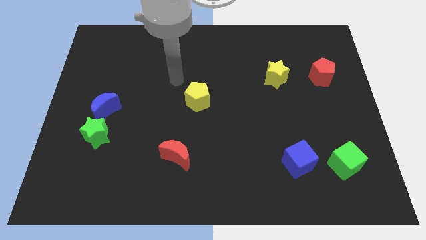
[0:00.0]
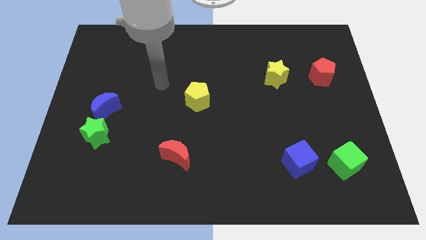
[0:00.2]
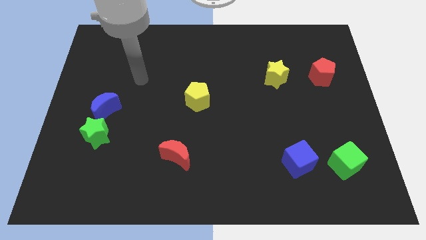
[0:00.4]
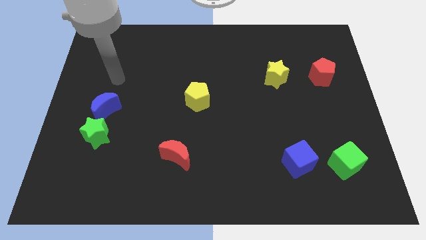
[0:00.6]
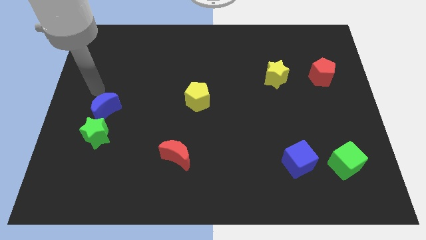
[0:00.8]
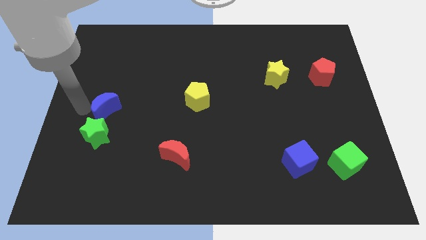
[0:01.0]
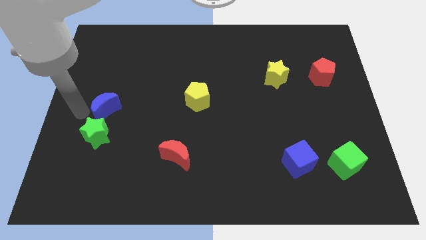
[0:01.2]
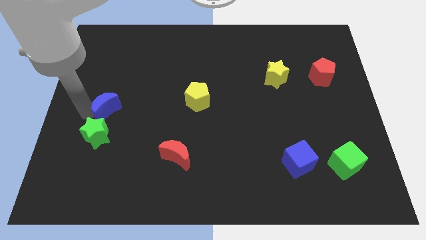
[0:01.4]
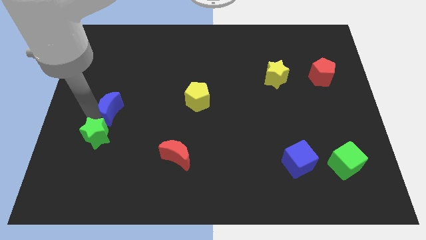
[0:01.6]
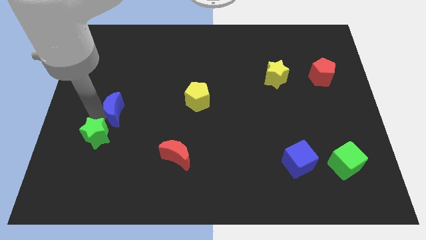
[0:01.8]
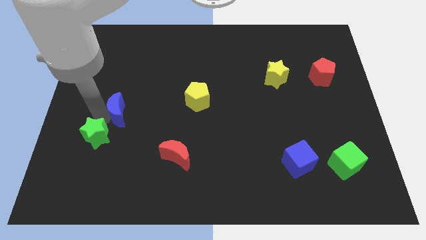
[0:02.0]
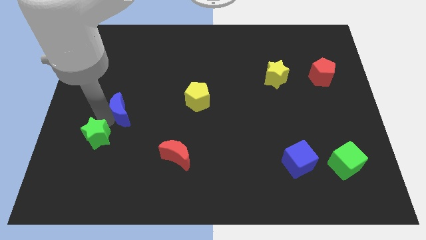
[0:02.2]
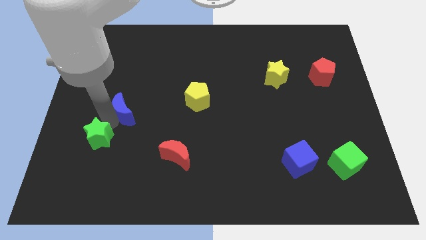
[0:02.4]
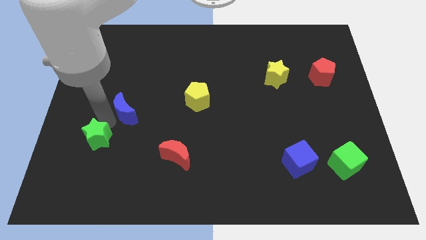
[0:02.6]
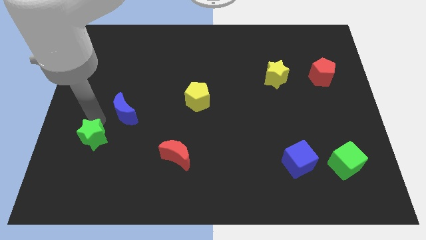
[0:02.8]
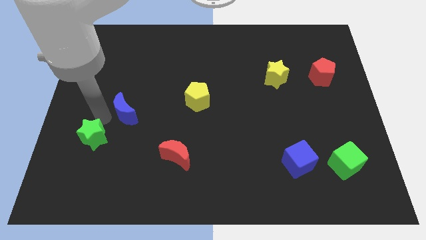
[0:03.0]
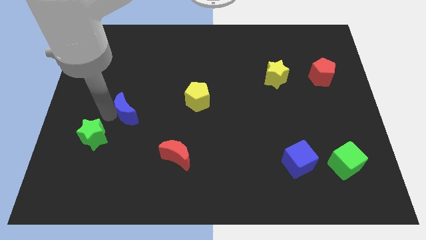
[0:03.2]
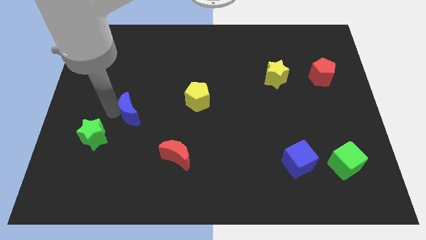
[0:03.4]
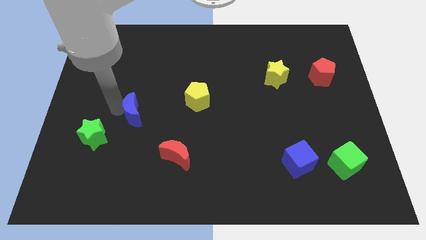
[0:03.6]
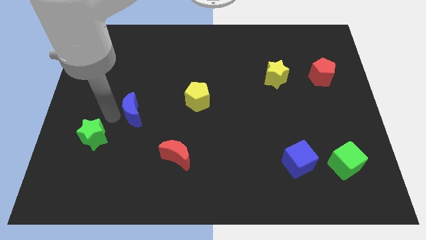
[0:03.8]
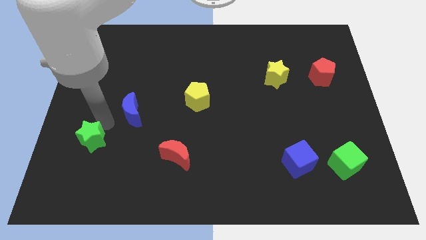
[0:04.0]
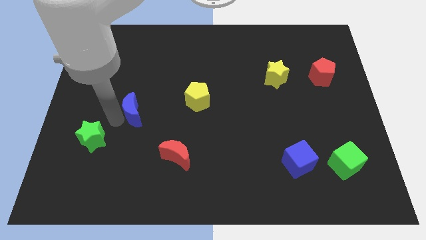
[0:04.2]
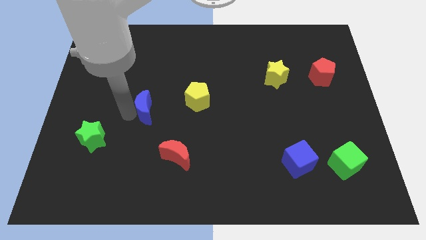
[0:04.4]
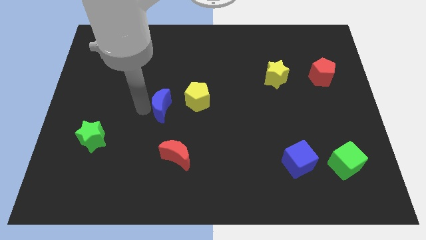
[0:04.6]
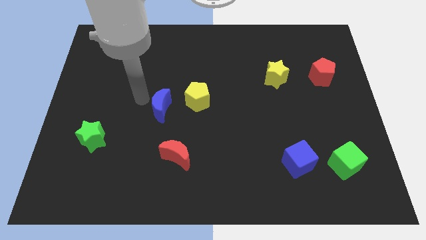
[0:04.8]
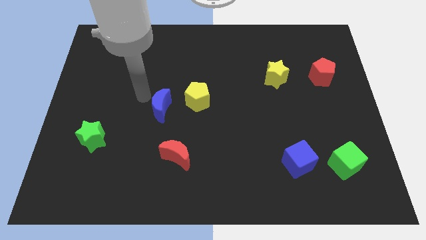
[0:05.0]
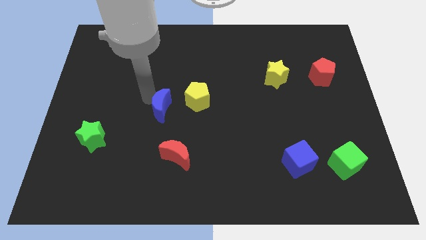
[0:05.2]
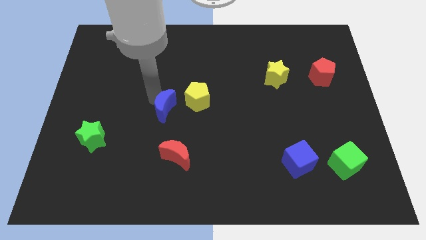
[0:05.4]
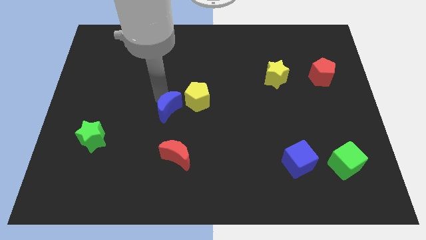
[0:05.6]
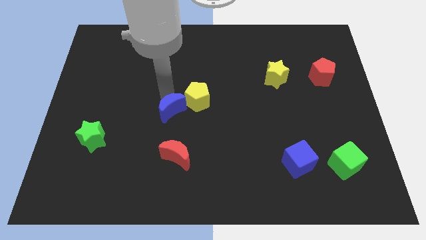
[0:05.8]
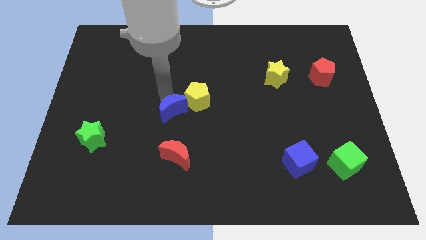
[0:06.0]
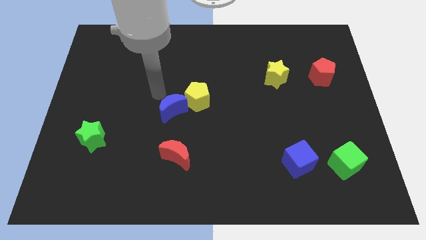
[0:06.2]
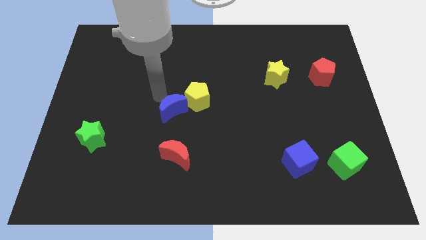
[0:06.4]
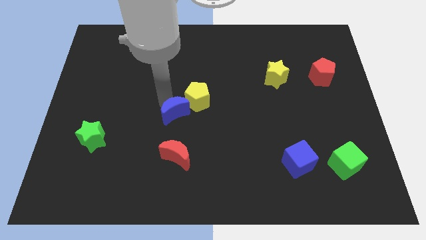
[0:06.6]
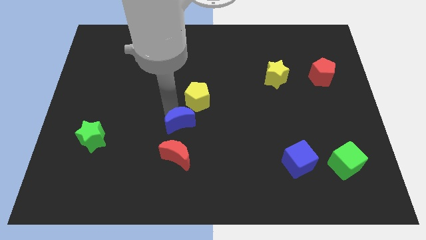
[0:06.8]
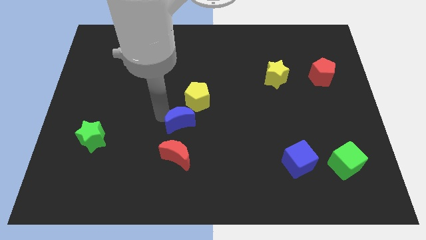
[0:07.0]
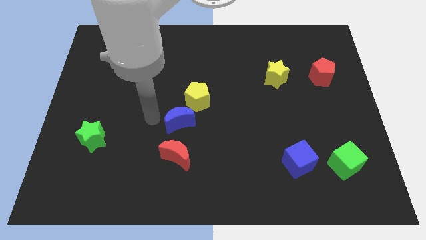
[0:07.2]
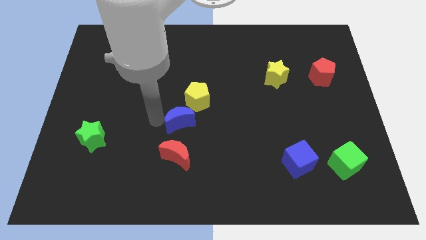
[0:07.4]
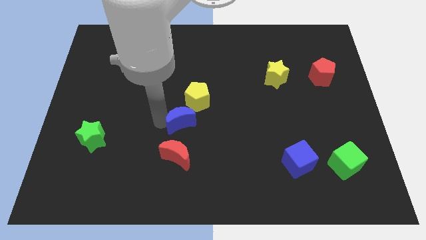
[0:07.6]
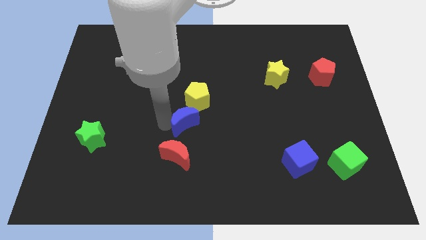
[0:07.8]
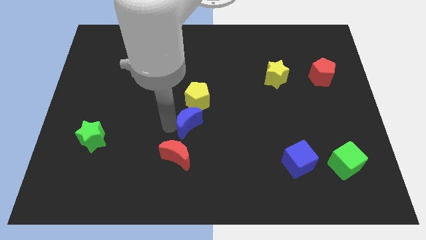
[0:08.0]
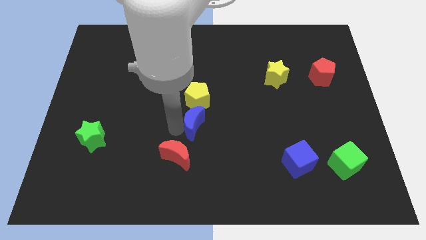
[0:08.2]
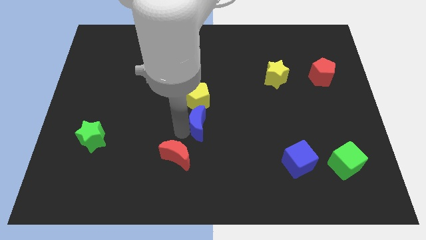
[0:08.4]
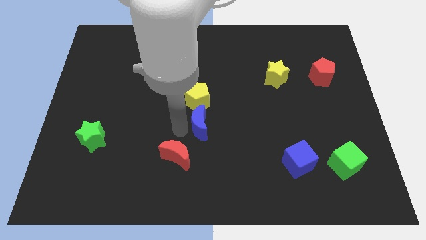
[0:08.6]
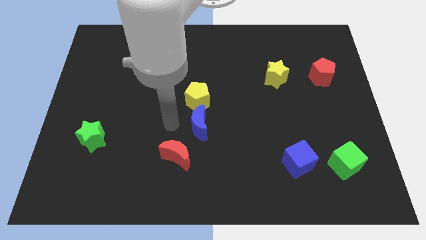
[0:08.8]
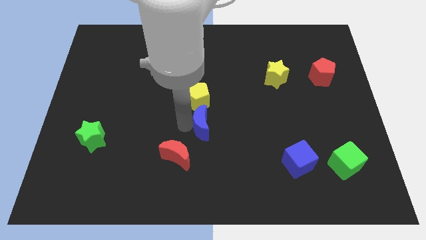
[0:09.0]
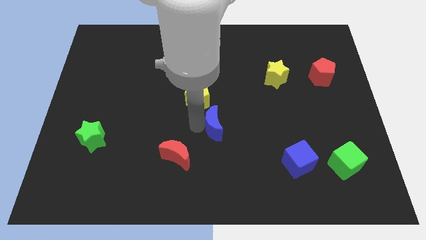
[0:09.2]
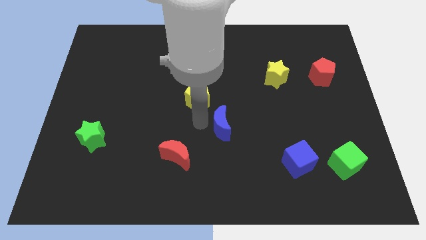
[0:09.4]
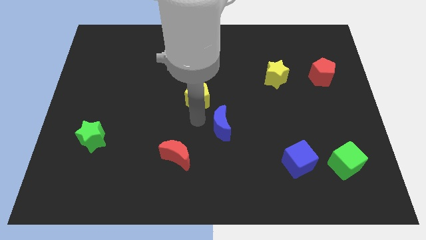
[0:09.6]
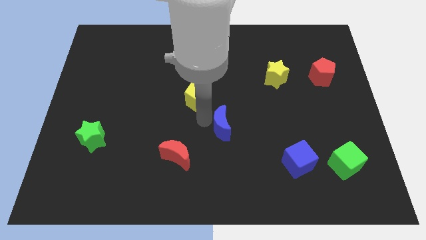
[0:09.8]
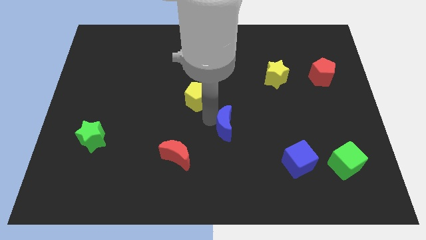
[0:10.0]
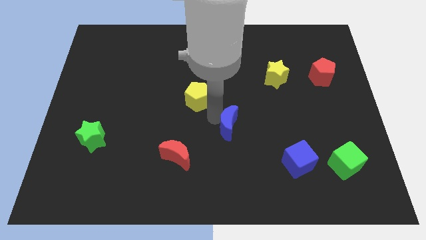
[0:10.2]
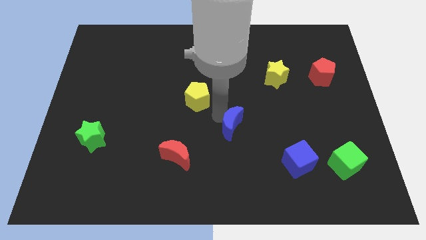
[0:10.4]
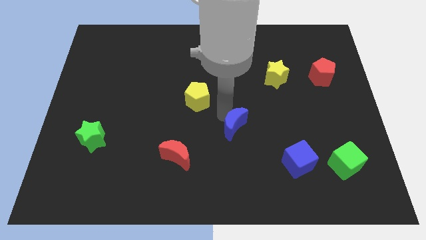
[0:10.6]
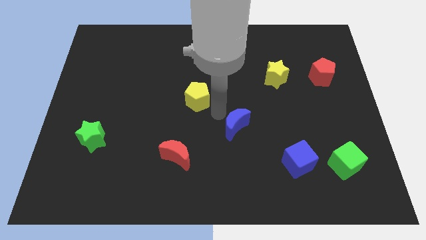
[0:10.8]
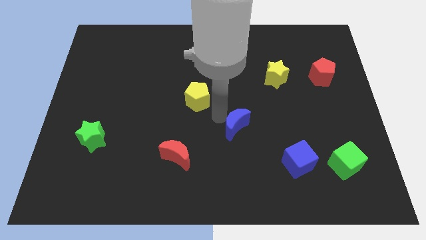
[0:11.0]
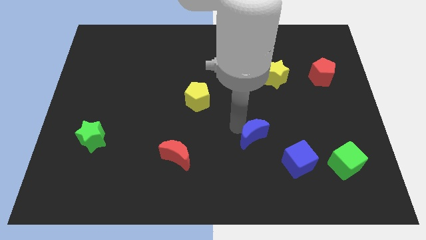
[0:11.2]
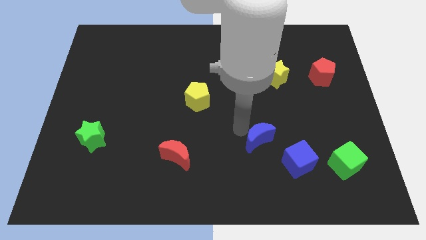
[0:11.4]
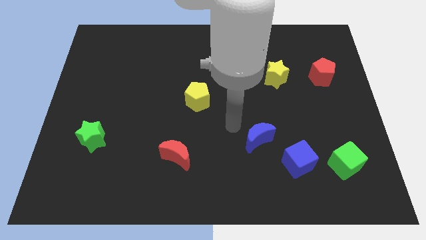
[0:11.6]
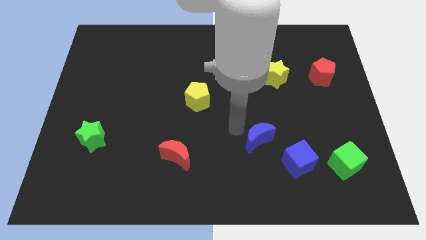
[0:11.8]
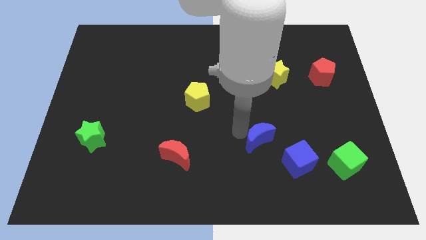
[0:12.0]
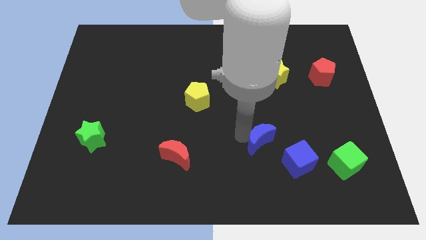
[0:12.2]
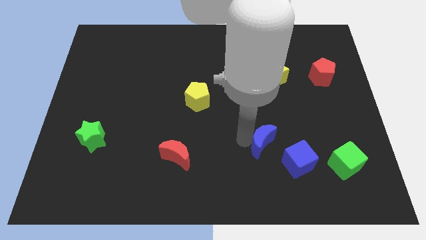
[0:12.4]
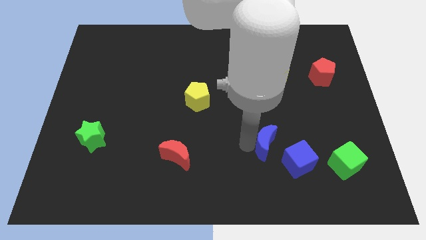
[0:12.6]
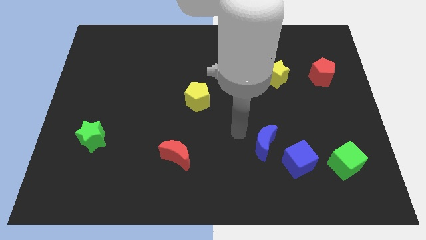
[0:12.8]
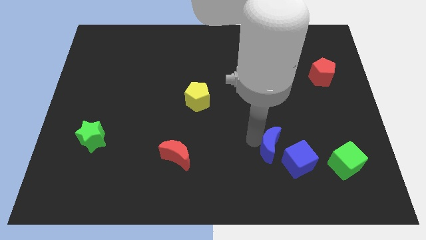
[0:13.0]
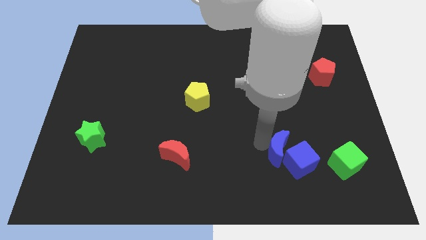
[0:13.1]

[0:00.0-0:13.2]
slide the blue moon to the blue cube

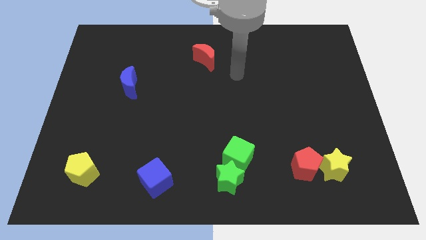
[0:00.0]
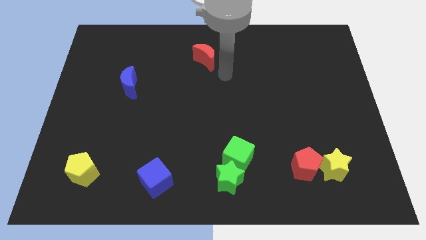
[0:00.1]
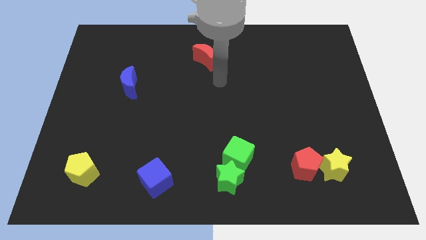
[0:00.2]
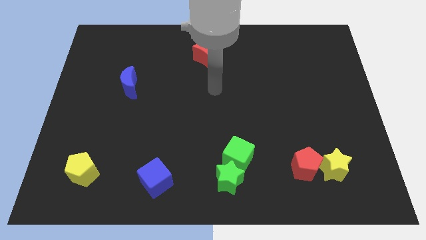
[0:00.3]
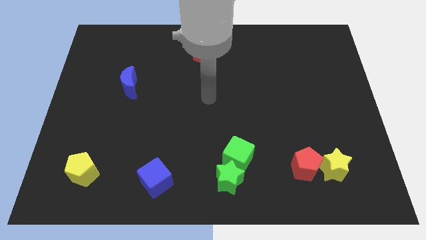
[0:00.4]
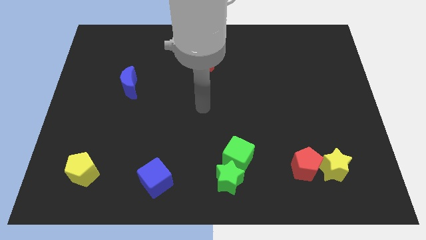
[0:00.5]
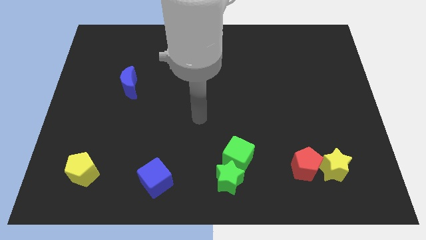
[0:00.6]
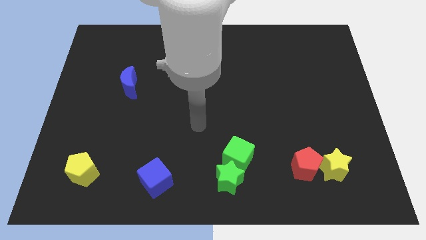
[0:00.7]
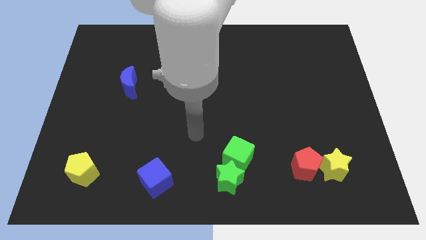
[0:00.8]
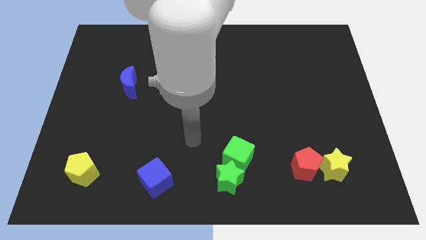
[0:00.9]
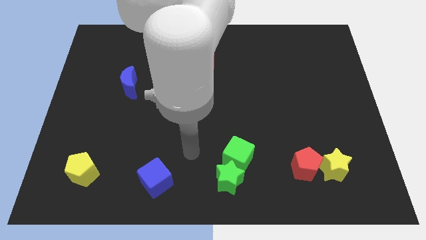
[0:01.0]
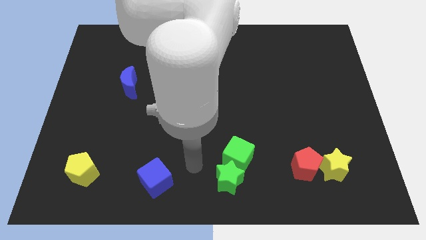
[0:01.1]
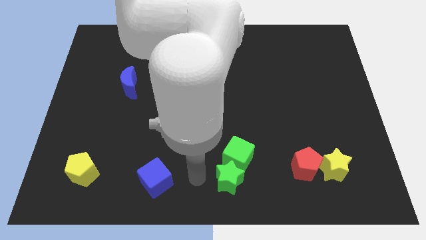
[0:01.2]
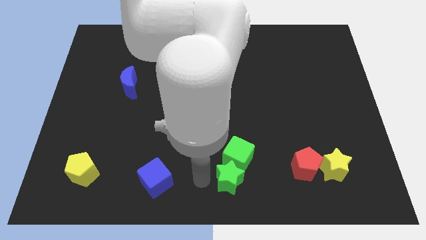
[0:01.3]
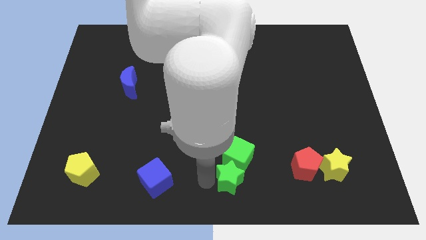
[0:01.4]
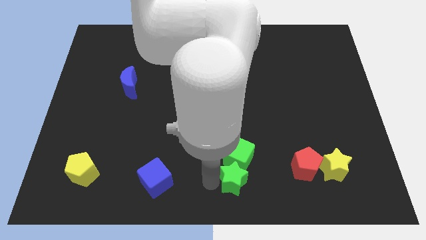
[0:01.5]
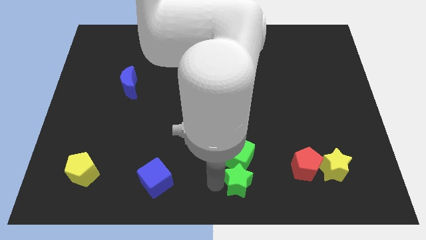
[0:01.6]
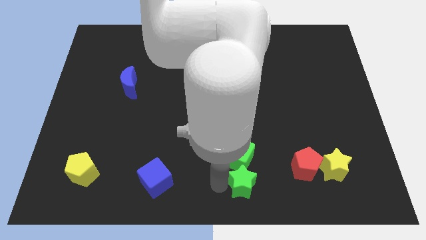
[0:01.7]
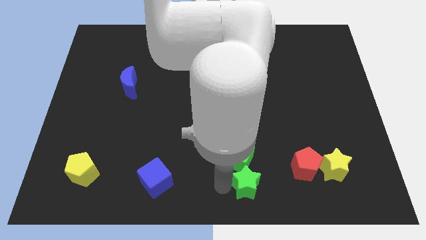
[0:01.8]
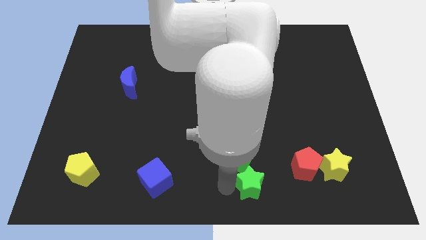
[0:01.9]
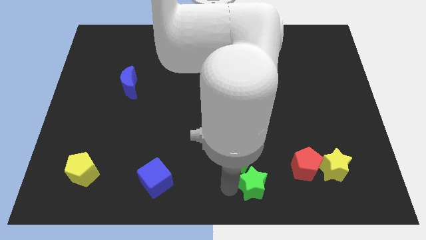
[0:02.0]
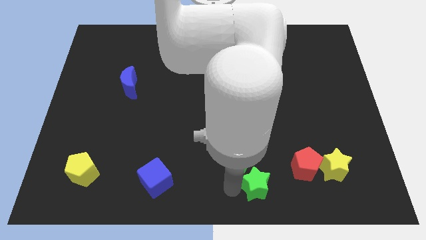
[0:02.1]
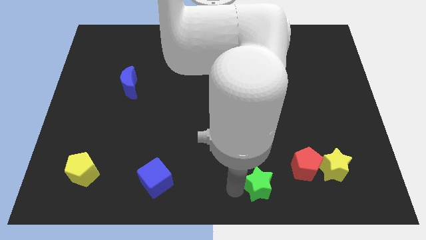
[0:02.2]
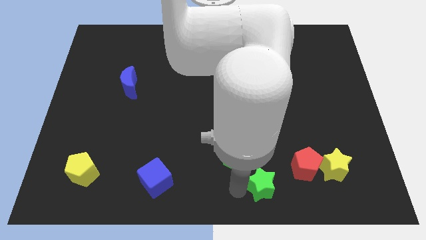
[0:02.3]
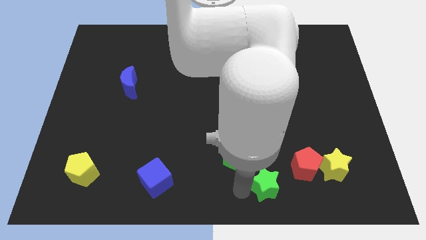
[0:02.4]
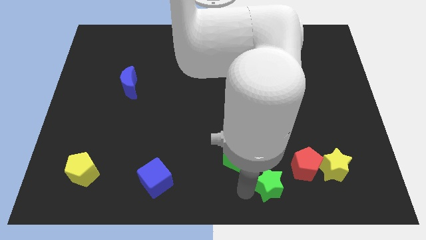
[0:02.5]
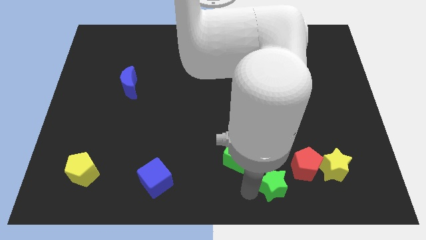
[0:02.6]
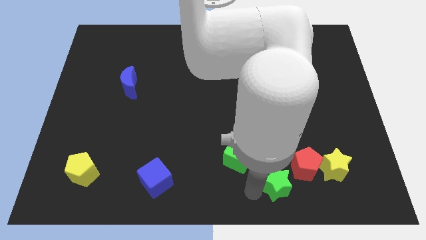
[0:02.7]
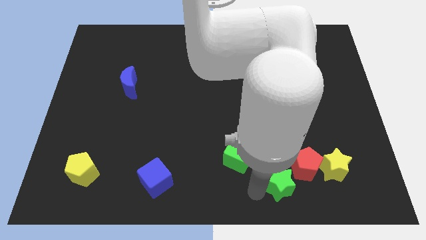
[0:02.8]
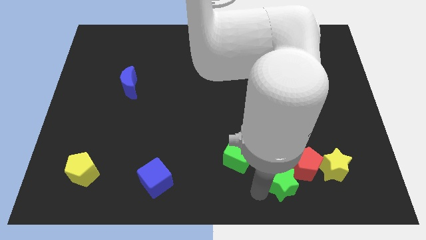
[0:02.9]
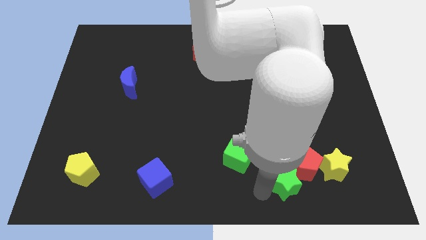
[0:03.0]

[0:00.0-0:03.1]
push the green star towards the red pentagon
